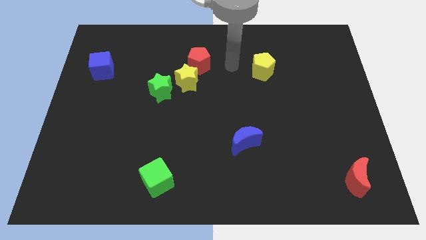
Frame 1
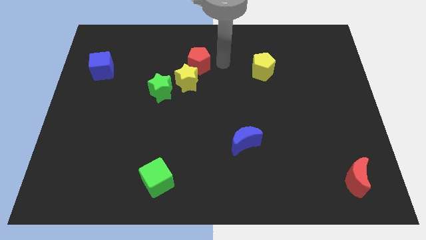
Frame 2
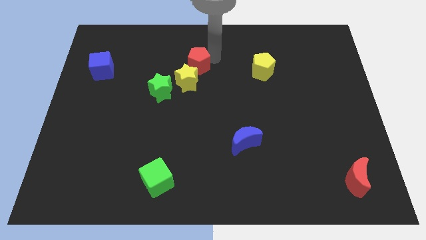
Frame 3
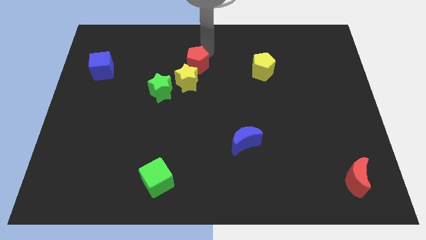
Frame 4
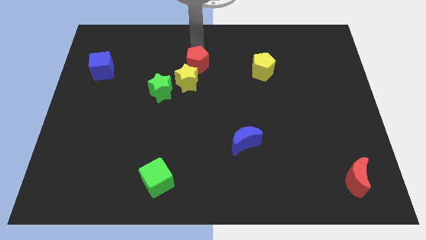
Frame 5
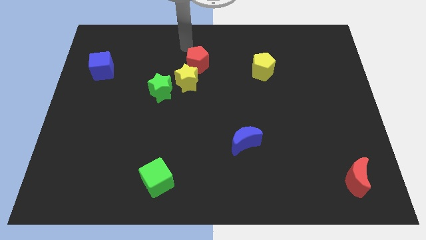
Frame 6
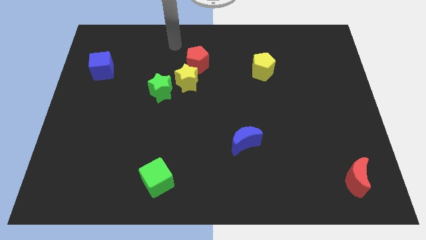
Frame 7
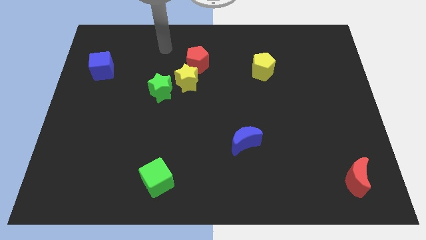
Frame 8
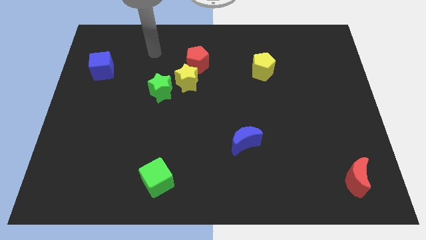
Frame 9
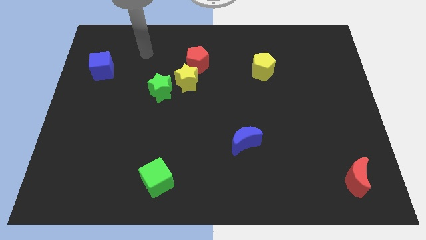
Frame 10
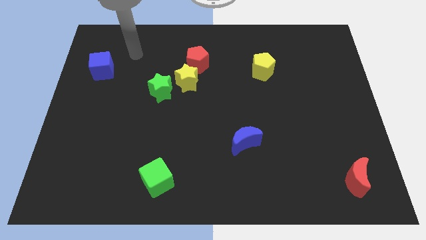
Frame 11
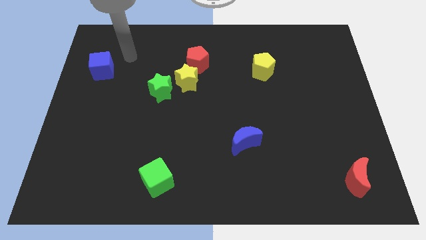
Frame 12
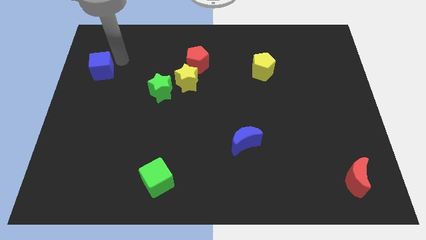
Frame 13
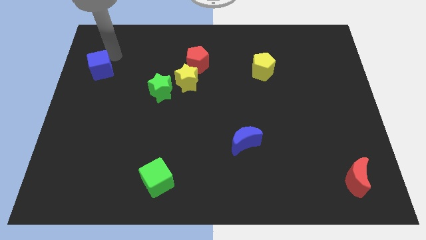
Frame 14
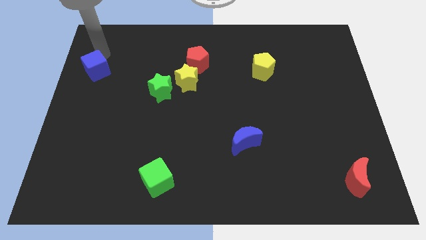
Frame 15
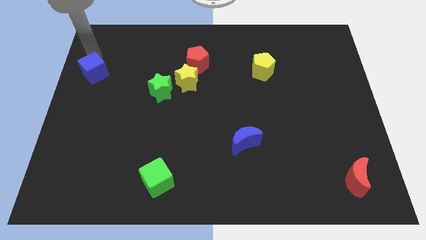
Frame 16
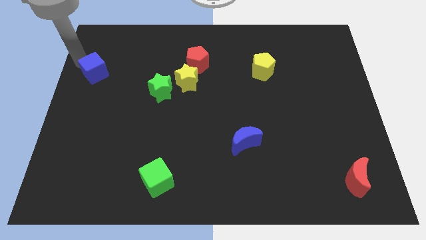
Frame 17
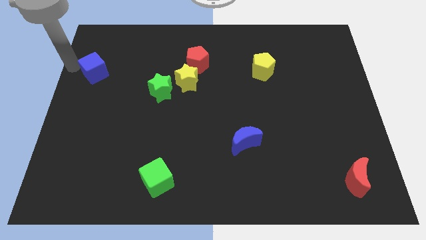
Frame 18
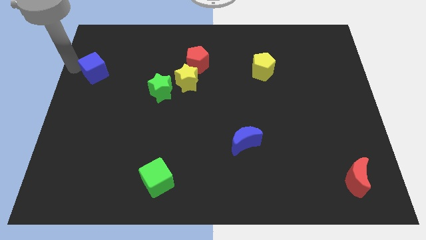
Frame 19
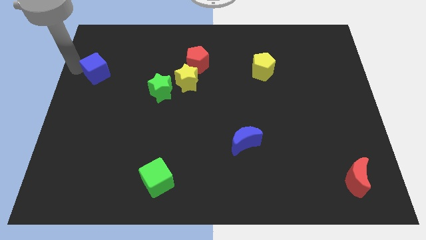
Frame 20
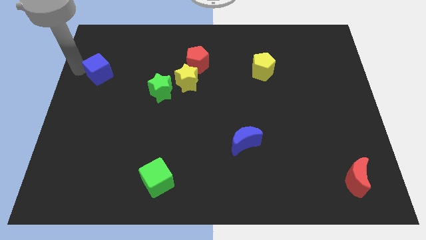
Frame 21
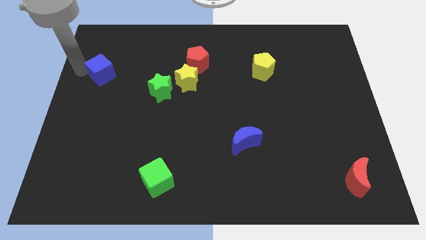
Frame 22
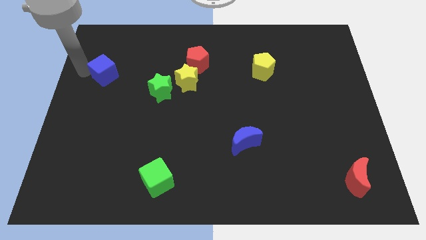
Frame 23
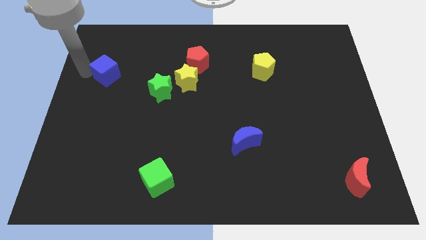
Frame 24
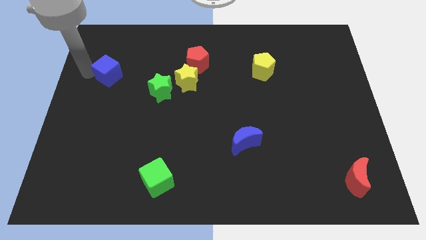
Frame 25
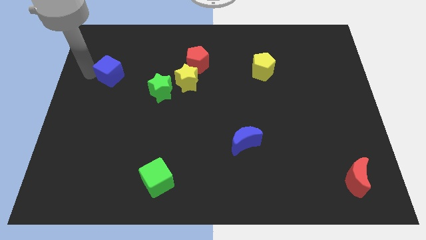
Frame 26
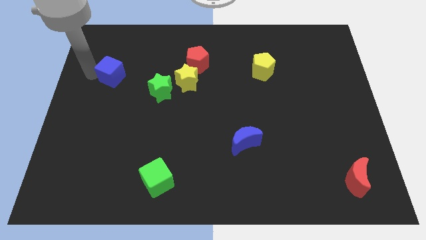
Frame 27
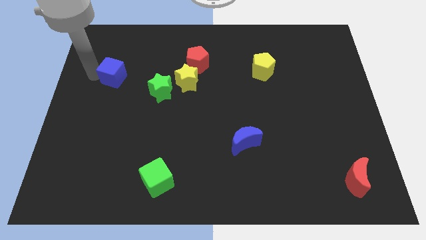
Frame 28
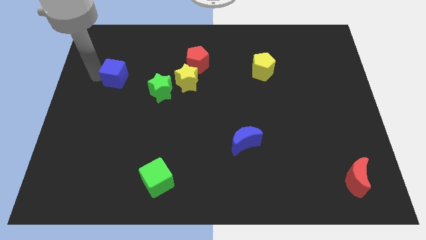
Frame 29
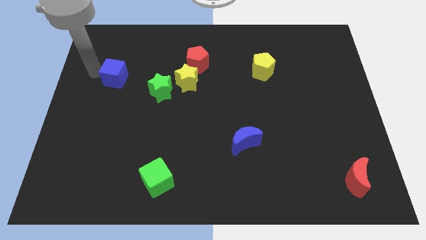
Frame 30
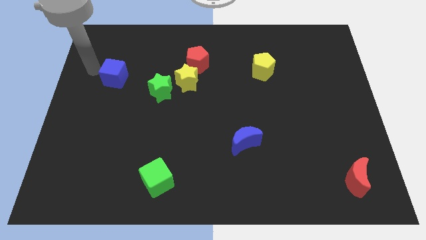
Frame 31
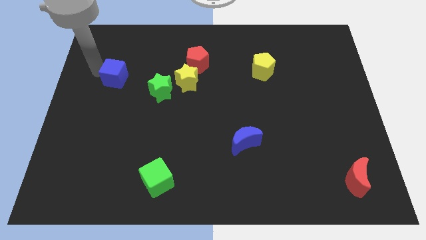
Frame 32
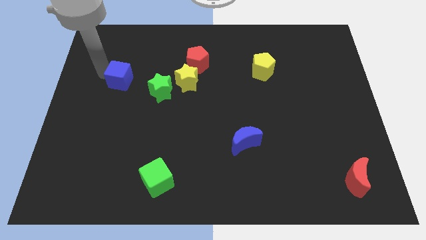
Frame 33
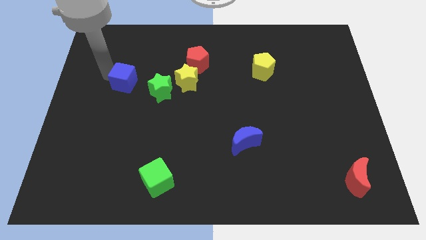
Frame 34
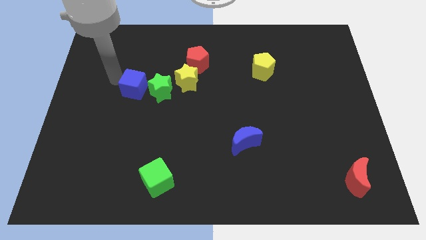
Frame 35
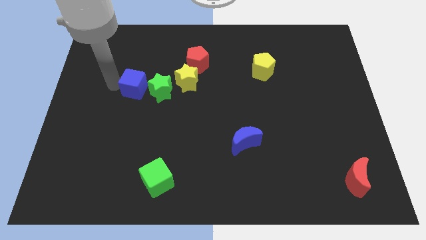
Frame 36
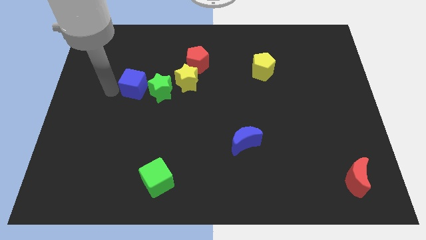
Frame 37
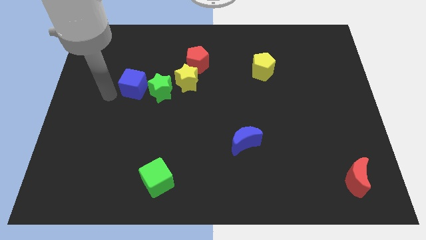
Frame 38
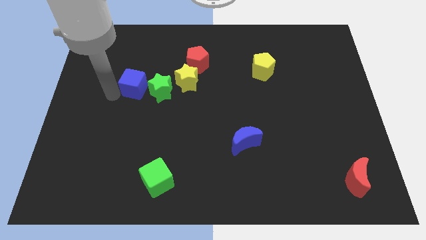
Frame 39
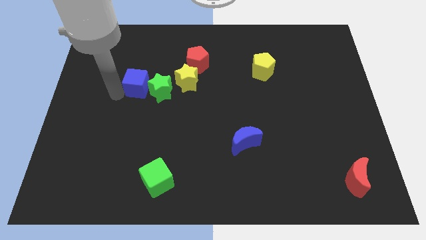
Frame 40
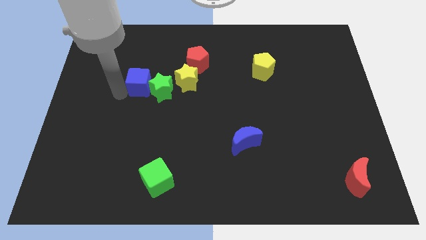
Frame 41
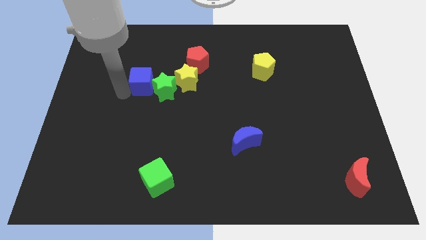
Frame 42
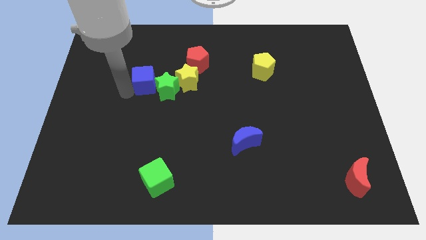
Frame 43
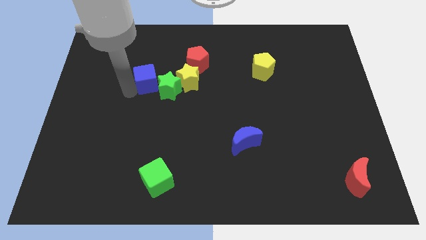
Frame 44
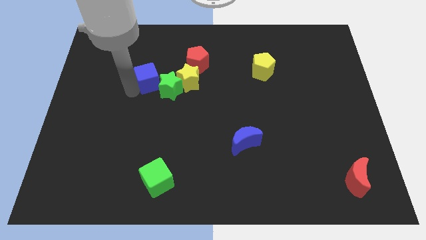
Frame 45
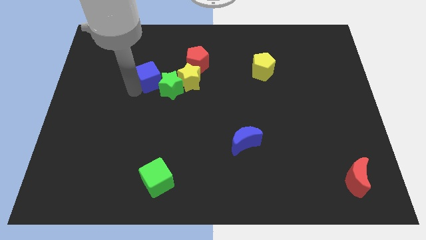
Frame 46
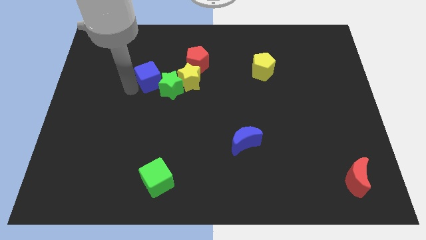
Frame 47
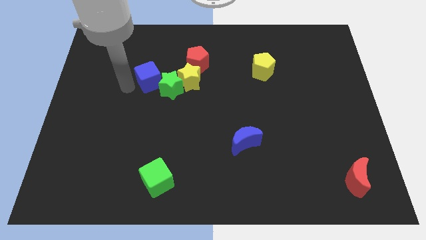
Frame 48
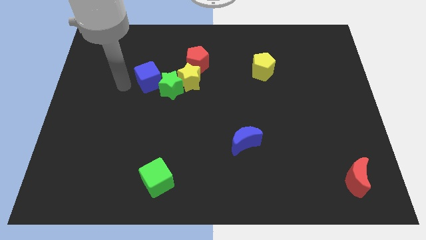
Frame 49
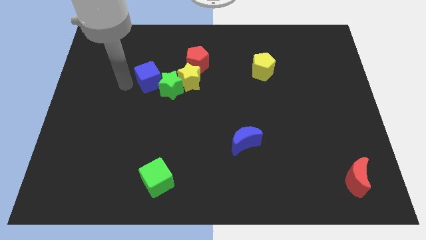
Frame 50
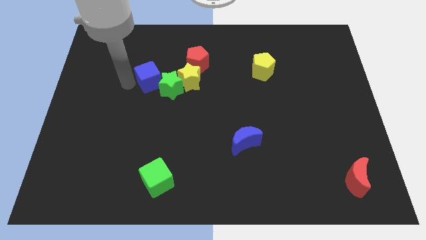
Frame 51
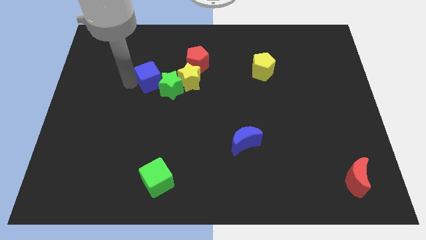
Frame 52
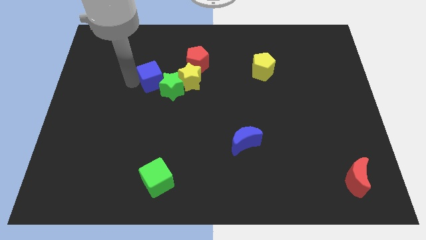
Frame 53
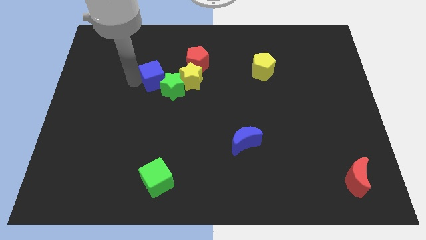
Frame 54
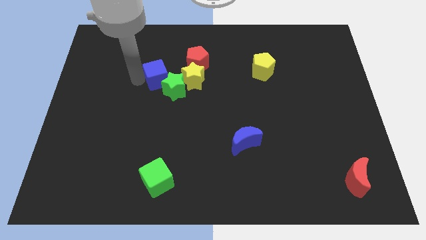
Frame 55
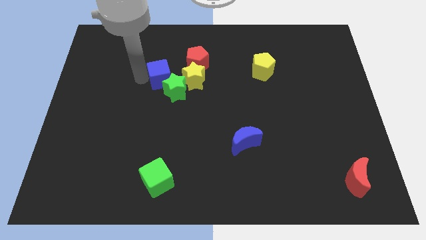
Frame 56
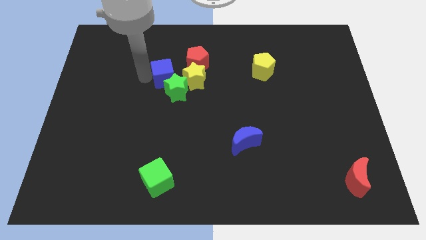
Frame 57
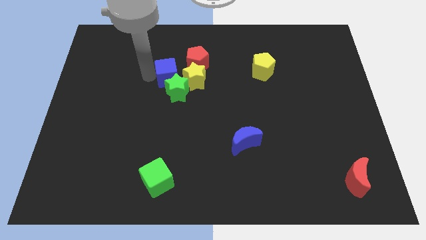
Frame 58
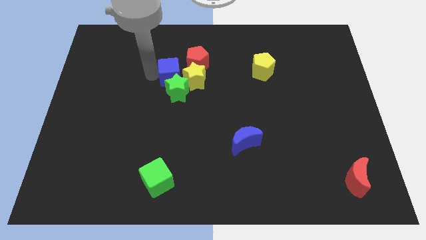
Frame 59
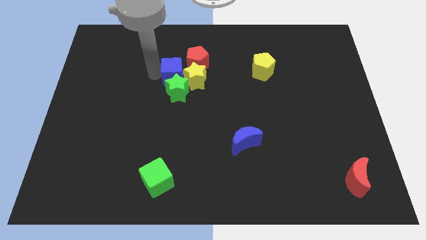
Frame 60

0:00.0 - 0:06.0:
move the blue cube close to the yellow star

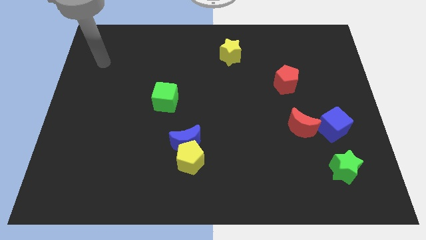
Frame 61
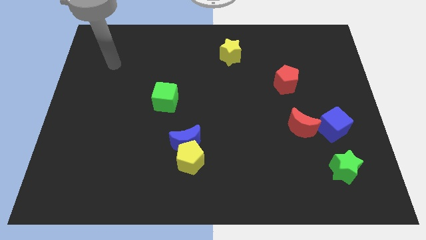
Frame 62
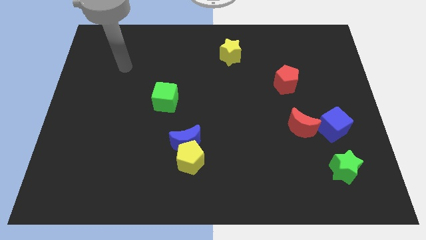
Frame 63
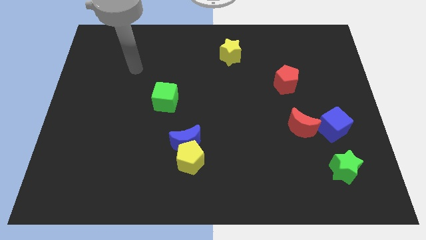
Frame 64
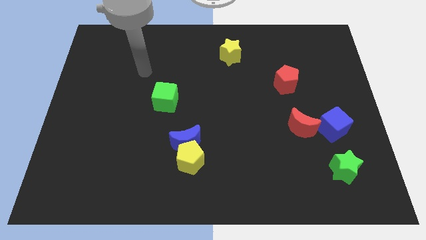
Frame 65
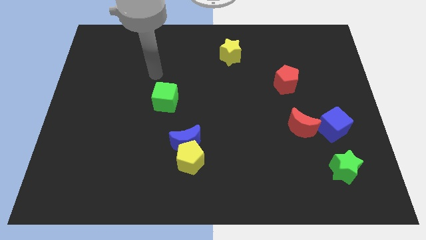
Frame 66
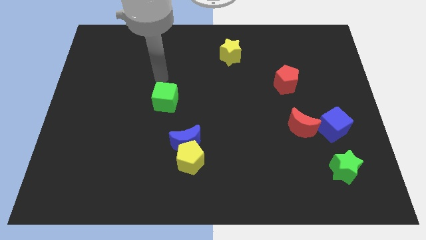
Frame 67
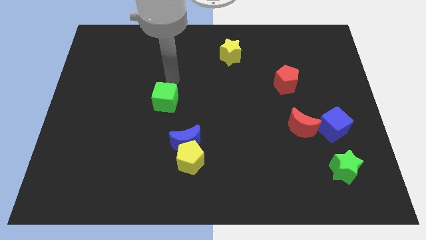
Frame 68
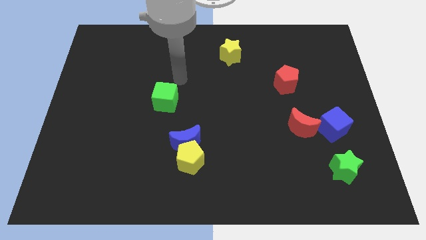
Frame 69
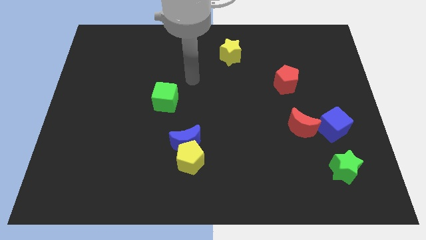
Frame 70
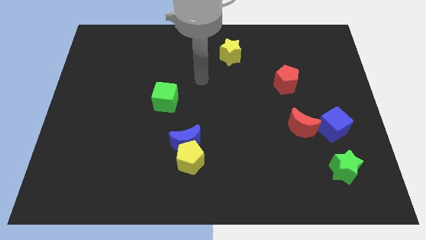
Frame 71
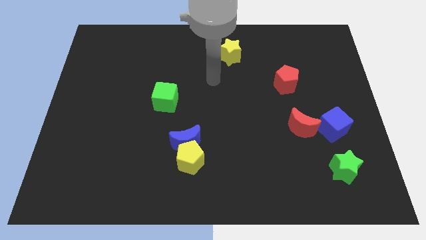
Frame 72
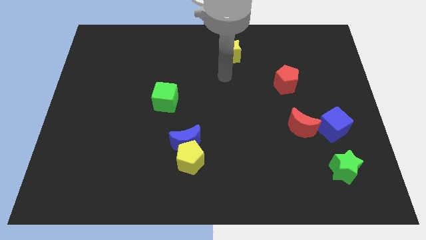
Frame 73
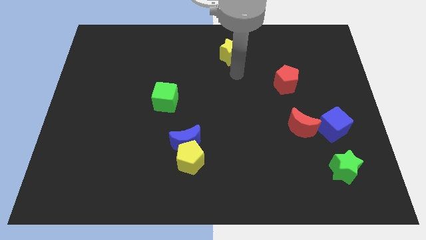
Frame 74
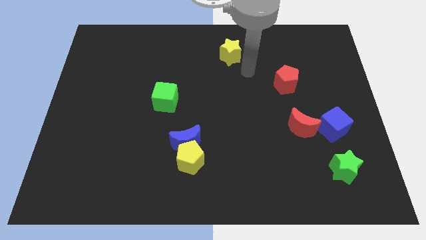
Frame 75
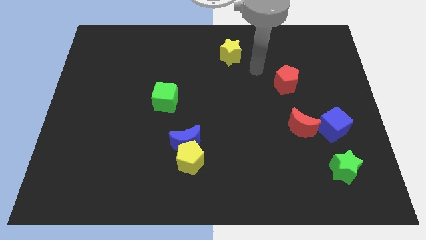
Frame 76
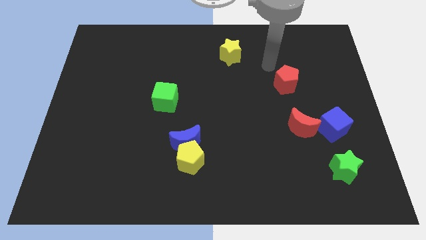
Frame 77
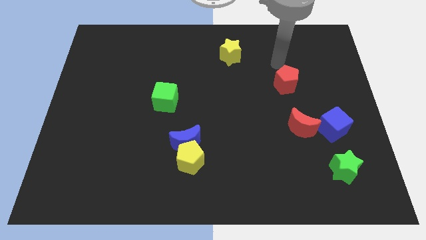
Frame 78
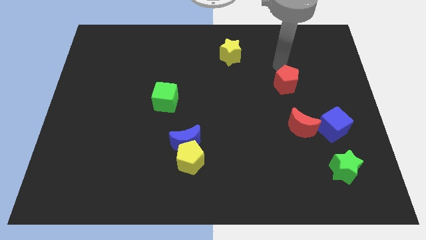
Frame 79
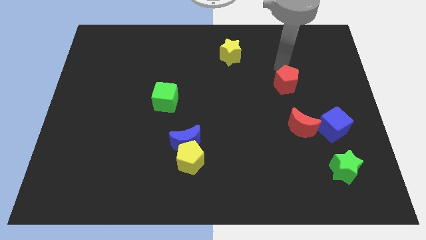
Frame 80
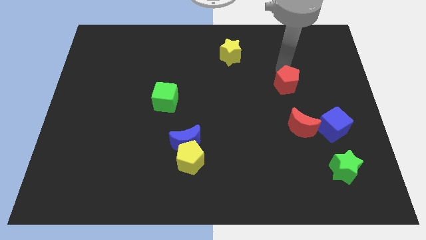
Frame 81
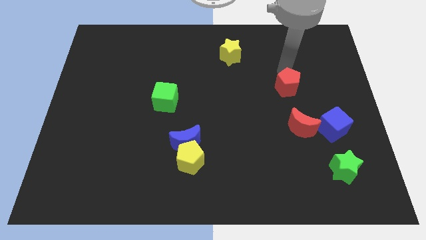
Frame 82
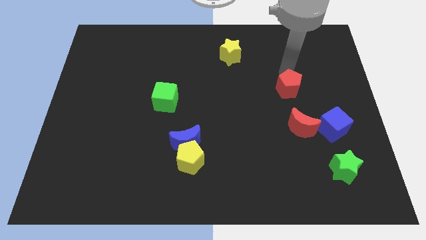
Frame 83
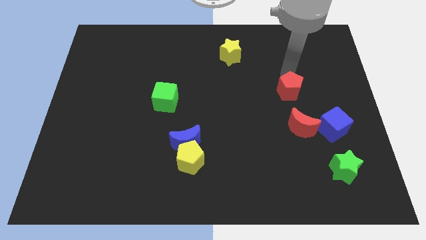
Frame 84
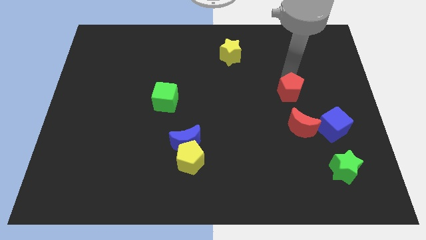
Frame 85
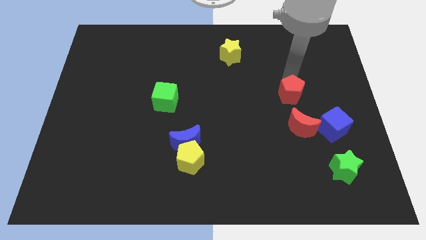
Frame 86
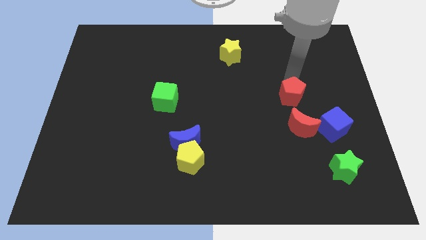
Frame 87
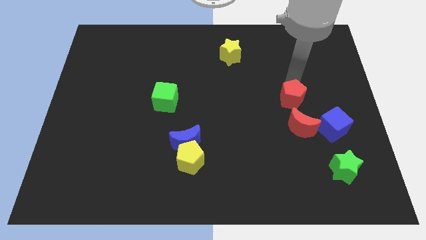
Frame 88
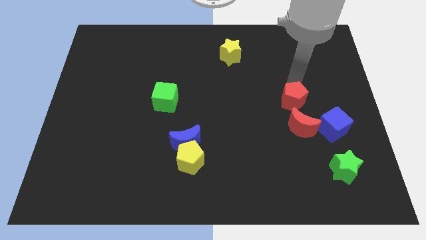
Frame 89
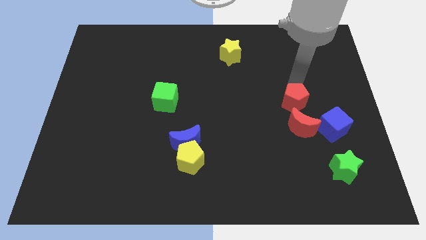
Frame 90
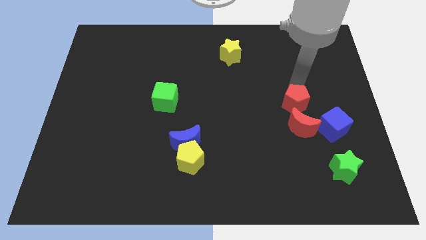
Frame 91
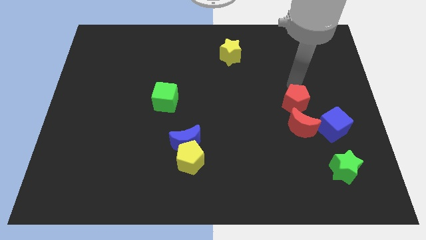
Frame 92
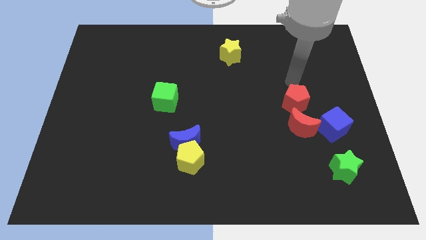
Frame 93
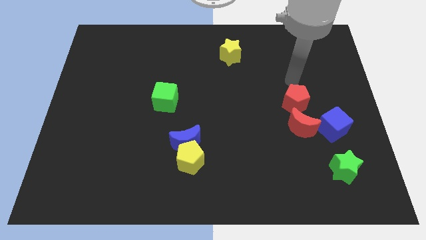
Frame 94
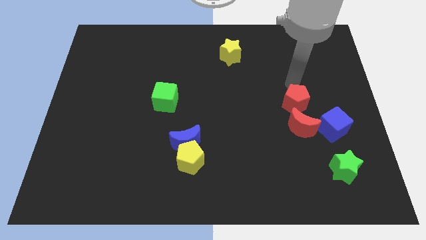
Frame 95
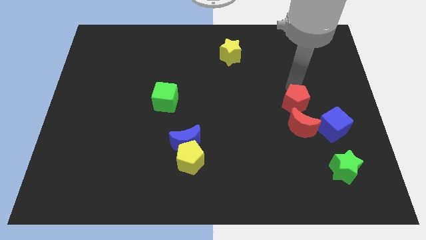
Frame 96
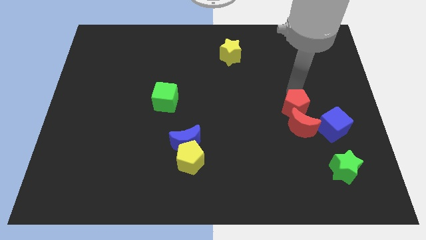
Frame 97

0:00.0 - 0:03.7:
move the red pentagon next to the red moon
